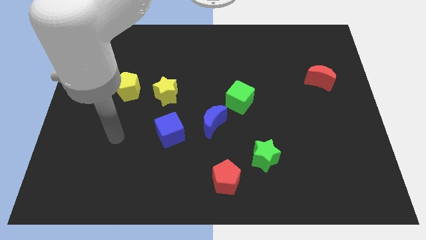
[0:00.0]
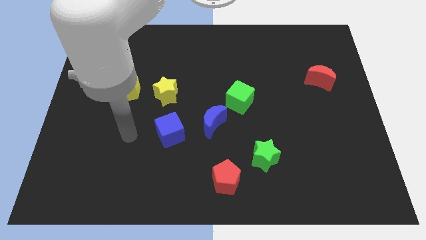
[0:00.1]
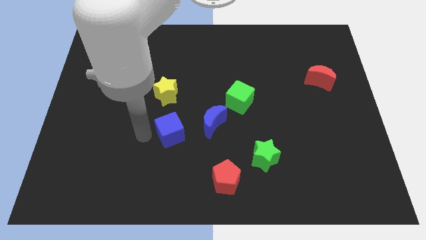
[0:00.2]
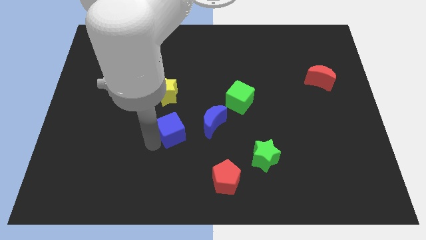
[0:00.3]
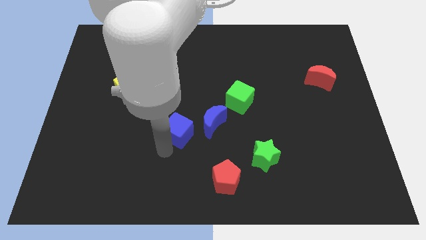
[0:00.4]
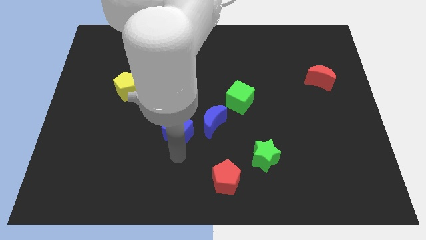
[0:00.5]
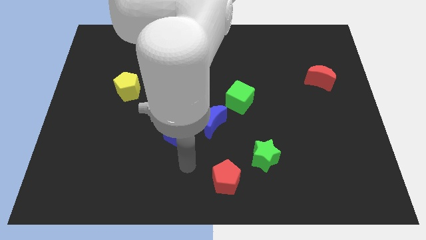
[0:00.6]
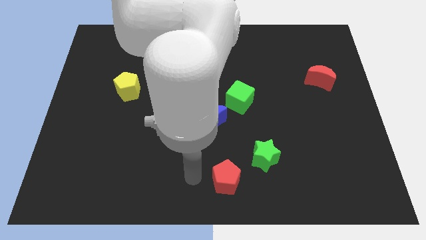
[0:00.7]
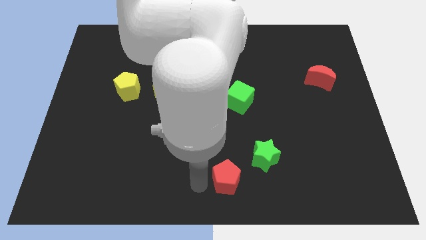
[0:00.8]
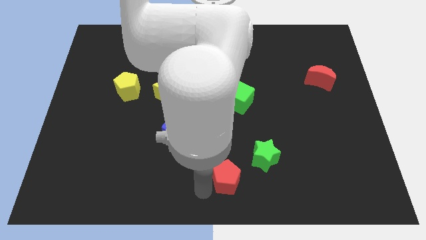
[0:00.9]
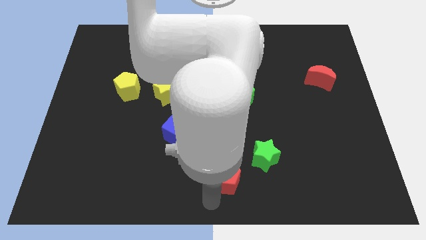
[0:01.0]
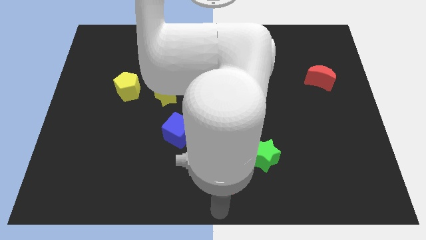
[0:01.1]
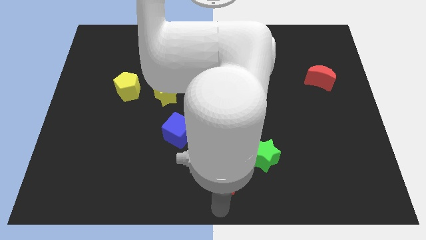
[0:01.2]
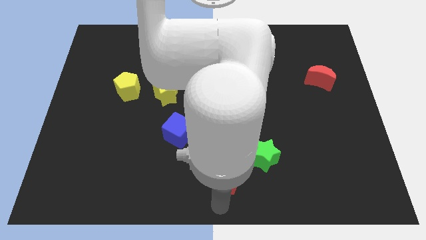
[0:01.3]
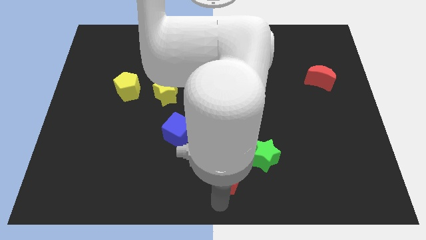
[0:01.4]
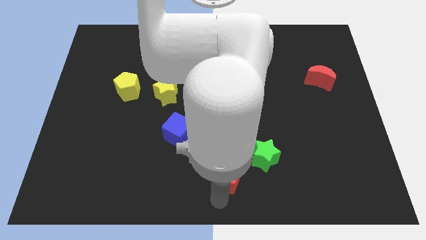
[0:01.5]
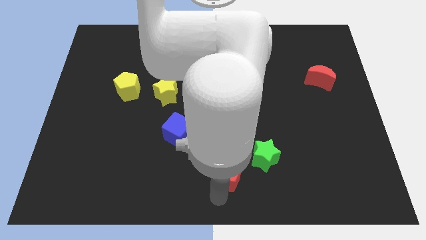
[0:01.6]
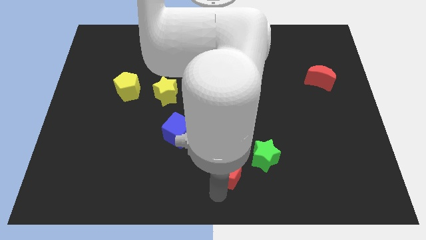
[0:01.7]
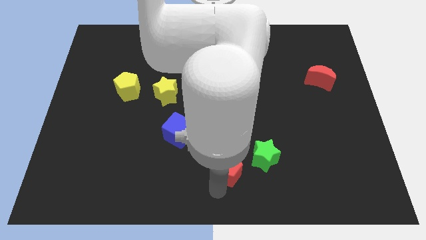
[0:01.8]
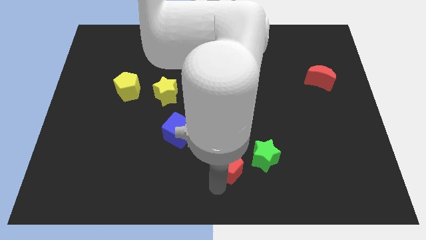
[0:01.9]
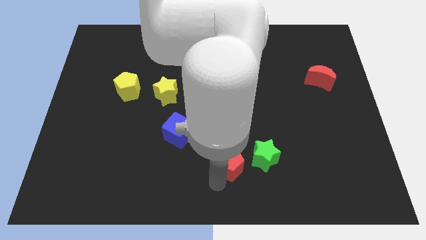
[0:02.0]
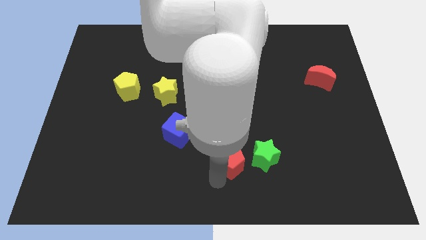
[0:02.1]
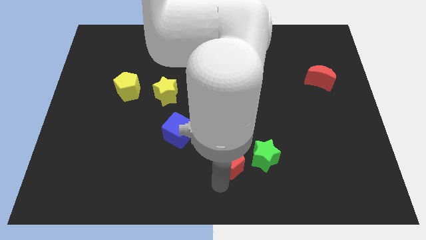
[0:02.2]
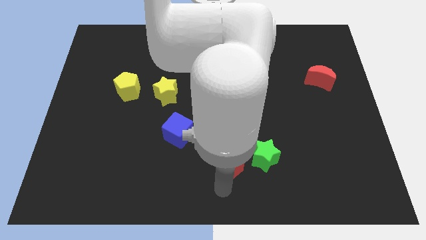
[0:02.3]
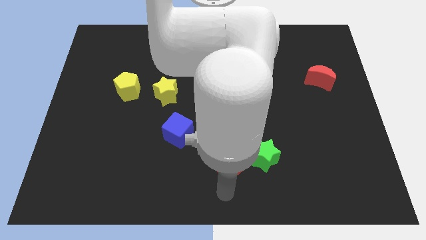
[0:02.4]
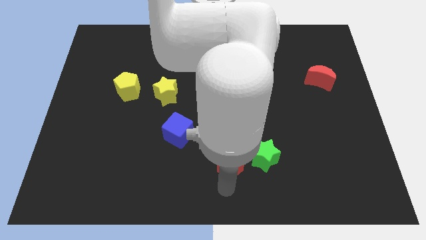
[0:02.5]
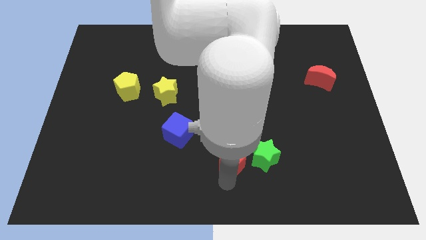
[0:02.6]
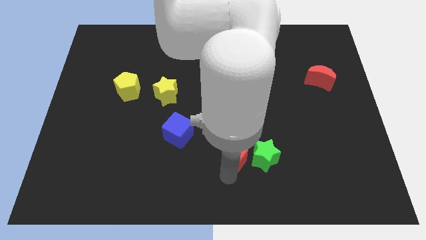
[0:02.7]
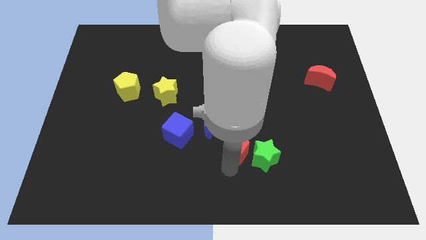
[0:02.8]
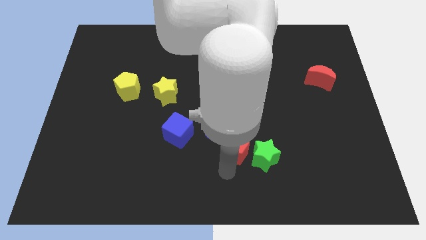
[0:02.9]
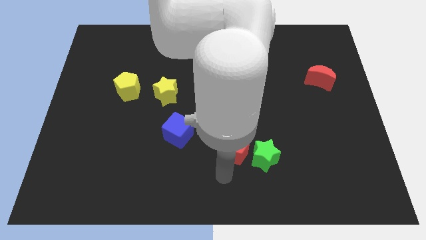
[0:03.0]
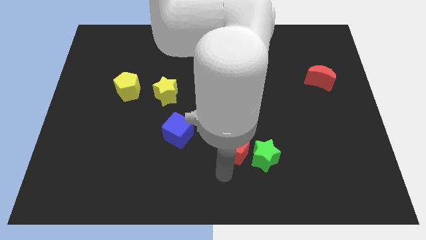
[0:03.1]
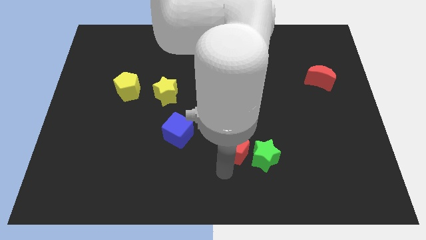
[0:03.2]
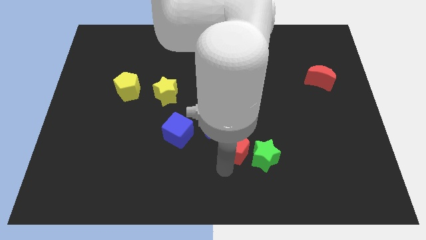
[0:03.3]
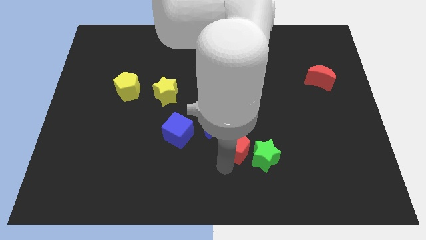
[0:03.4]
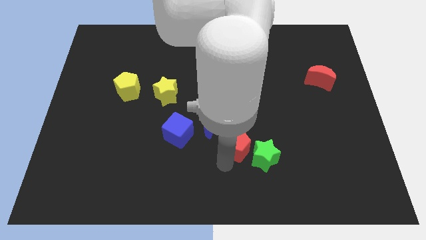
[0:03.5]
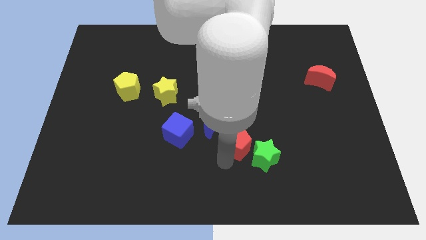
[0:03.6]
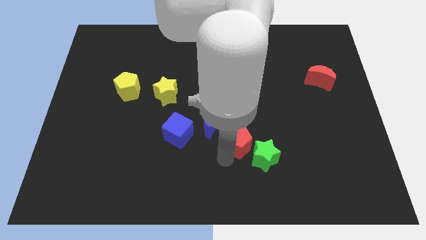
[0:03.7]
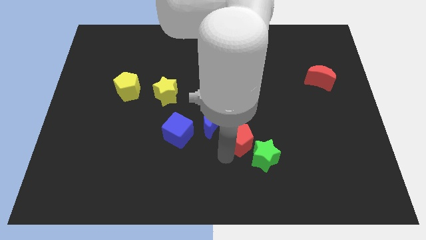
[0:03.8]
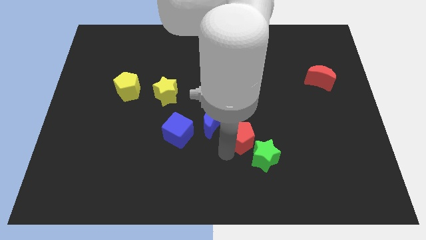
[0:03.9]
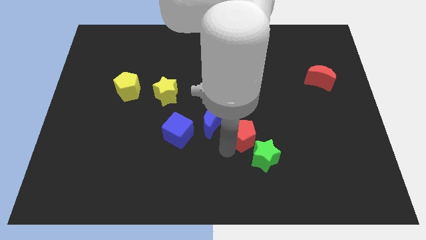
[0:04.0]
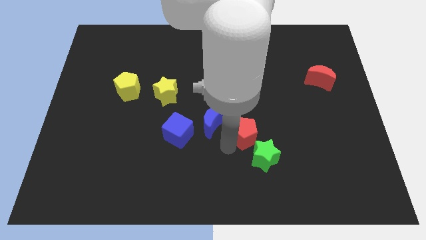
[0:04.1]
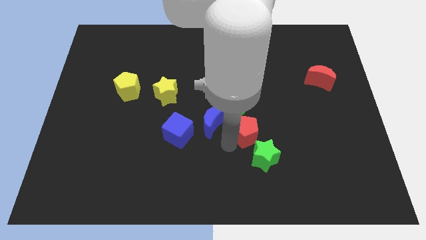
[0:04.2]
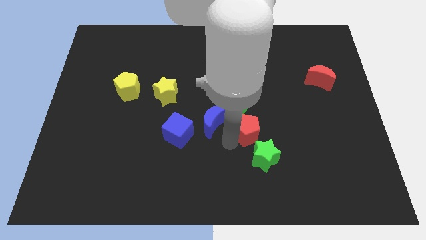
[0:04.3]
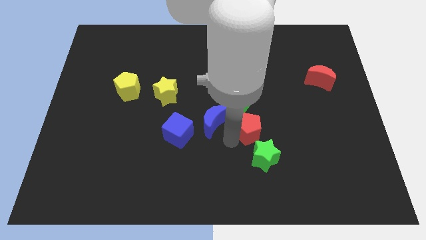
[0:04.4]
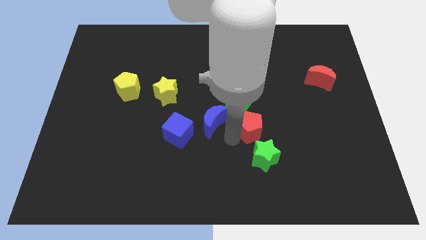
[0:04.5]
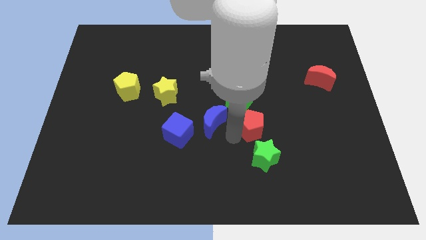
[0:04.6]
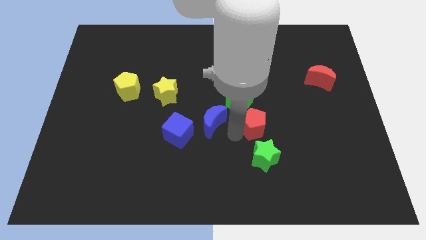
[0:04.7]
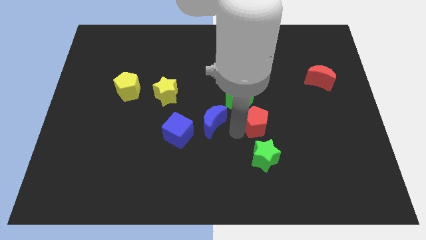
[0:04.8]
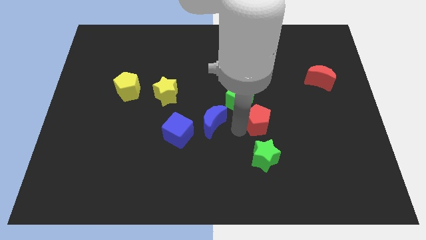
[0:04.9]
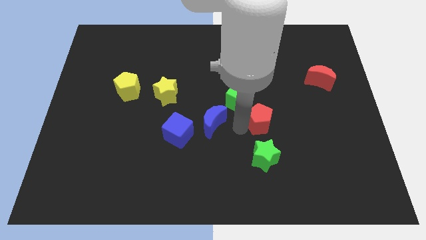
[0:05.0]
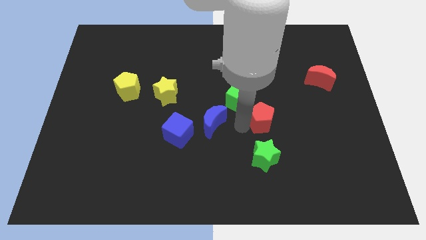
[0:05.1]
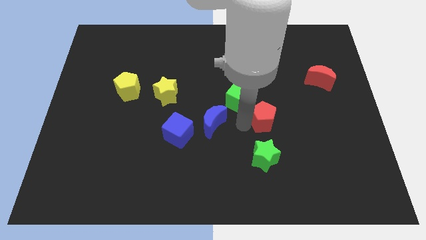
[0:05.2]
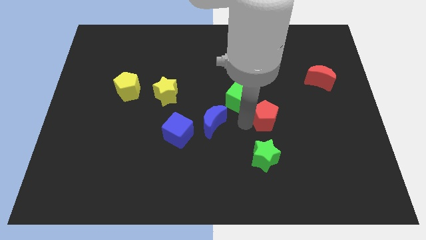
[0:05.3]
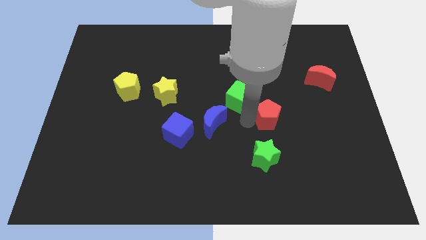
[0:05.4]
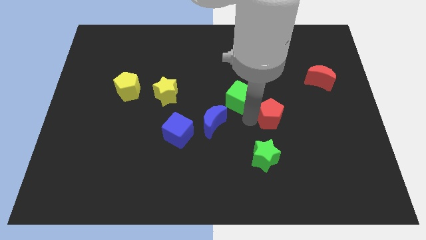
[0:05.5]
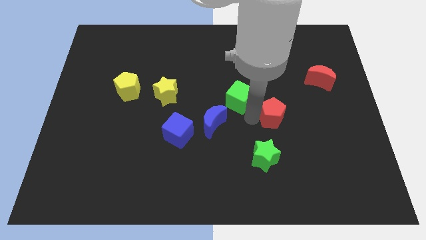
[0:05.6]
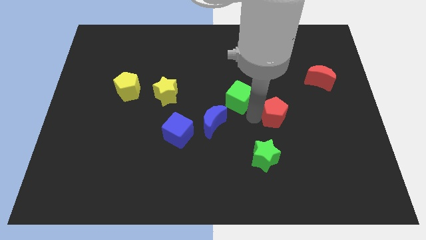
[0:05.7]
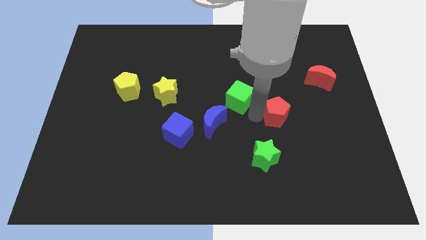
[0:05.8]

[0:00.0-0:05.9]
move the red pentagon upwards and then right

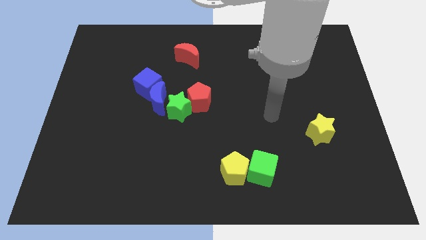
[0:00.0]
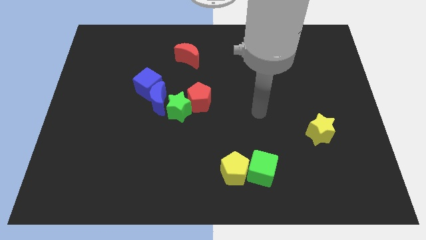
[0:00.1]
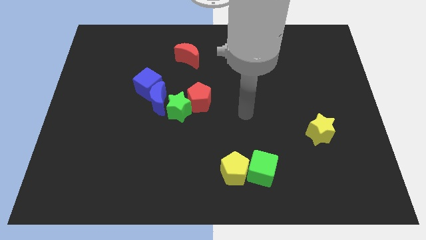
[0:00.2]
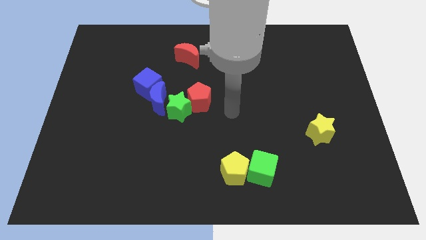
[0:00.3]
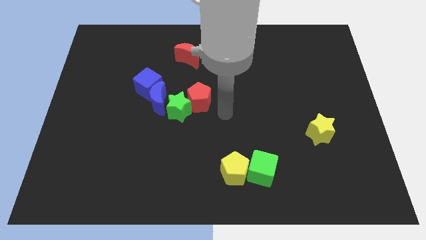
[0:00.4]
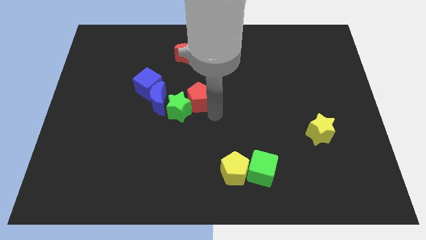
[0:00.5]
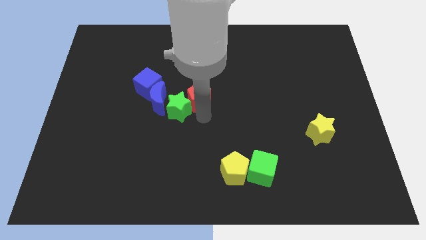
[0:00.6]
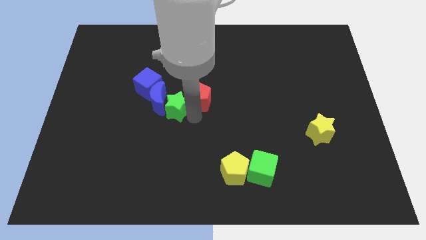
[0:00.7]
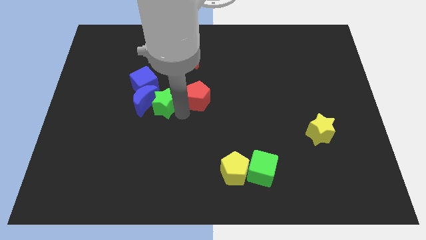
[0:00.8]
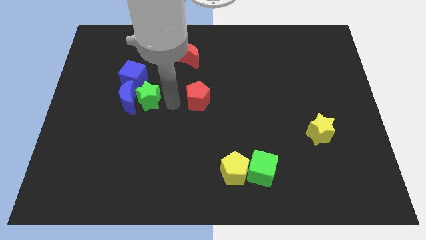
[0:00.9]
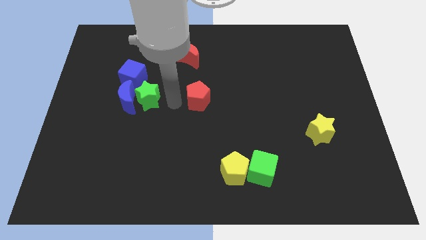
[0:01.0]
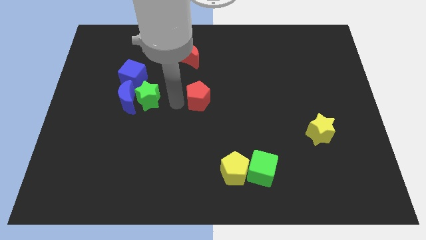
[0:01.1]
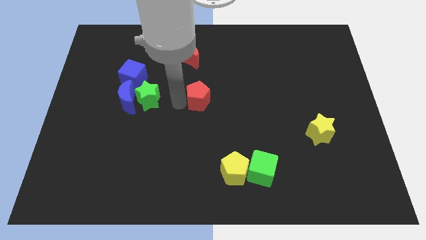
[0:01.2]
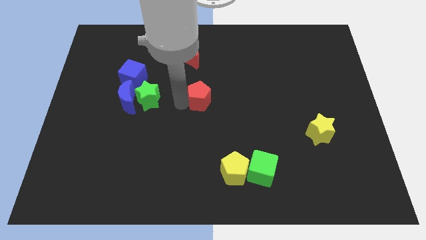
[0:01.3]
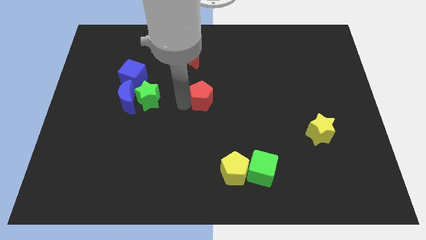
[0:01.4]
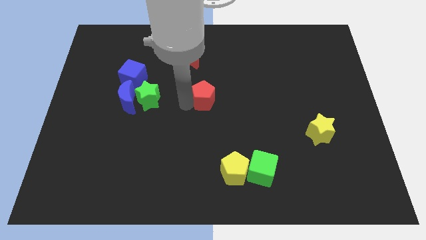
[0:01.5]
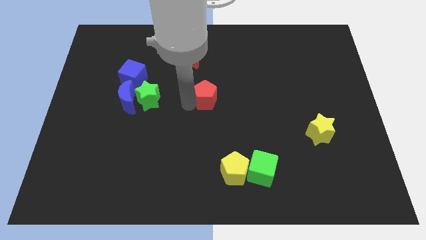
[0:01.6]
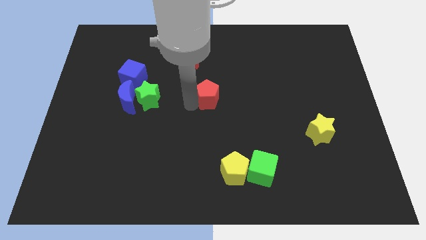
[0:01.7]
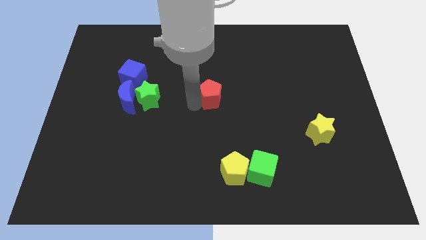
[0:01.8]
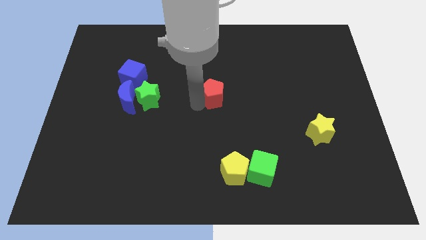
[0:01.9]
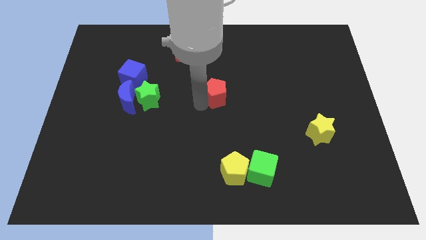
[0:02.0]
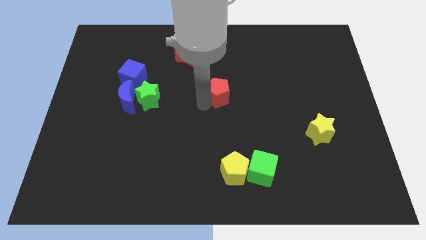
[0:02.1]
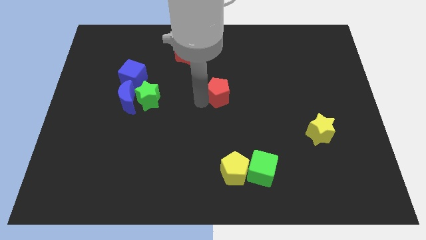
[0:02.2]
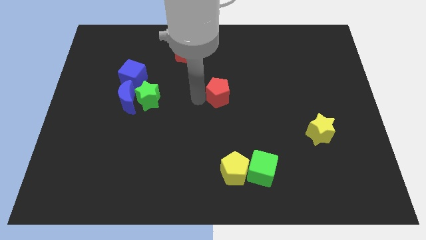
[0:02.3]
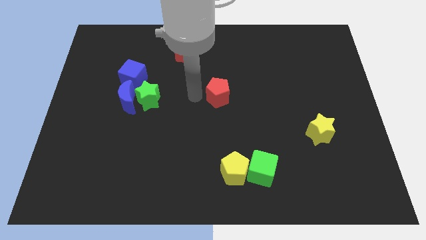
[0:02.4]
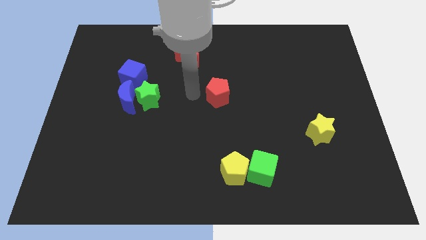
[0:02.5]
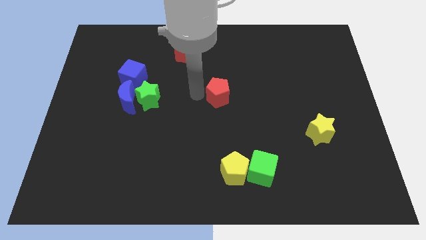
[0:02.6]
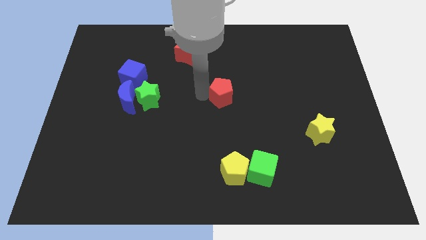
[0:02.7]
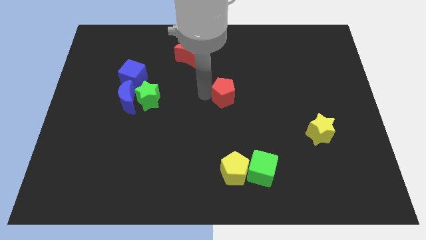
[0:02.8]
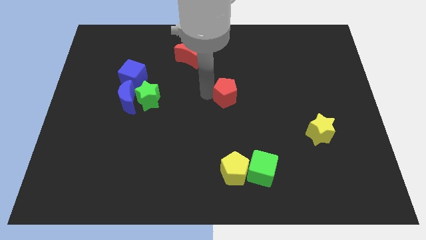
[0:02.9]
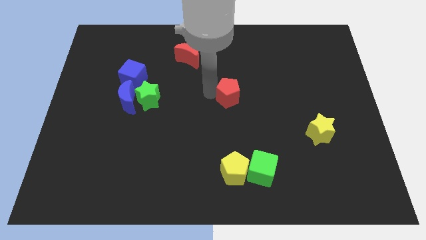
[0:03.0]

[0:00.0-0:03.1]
slightly push the red pentagon right
